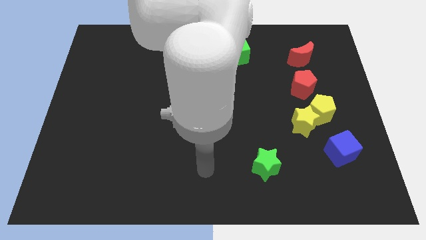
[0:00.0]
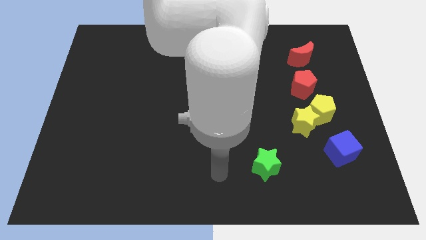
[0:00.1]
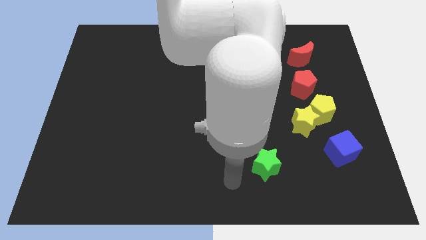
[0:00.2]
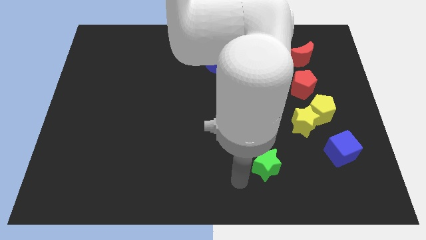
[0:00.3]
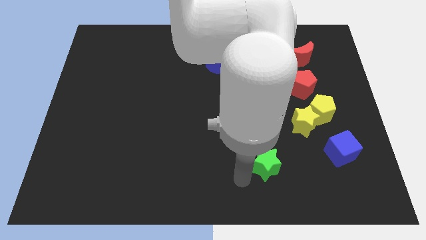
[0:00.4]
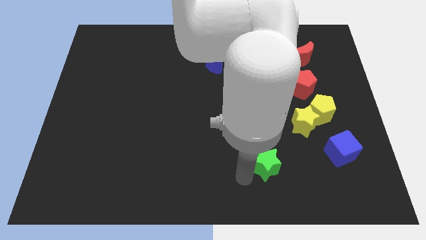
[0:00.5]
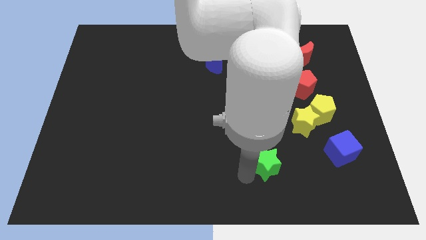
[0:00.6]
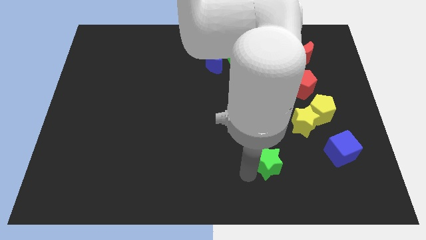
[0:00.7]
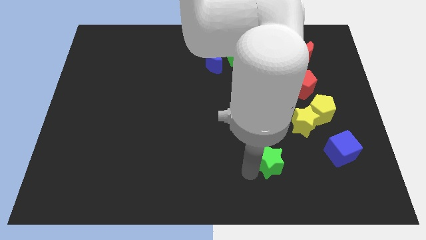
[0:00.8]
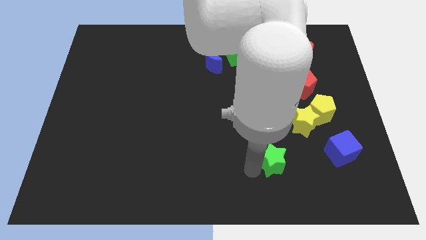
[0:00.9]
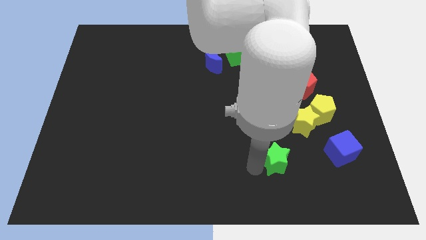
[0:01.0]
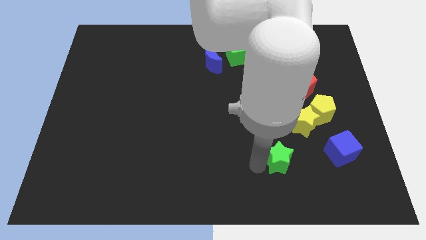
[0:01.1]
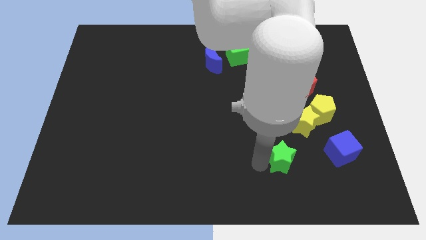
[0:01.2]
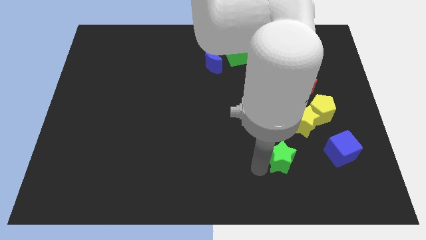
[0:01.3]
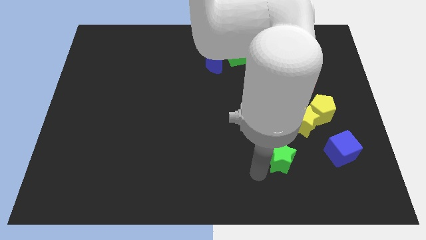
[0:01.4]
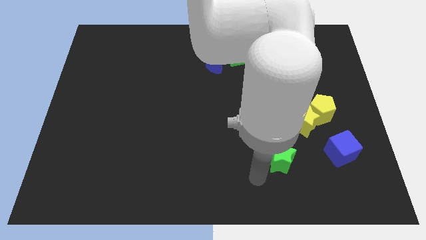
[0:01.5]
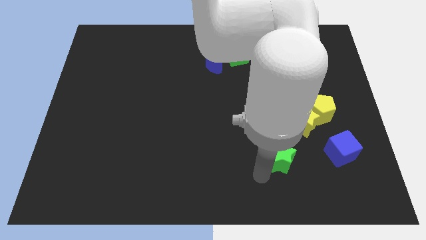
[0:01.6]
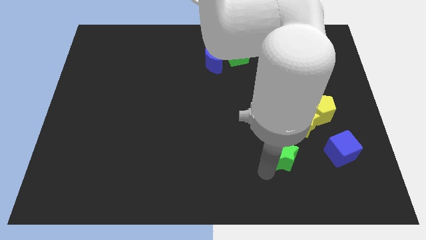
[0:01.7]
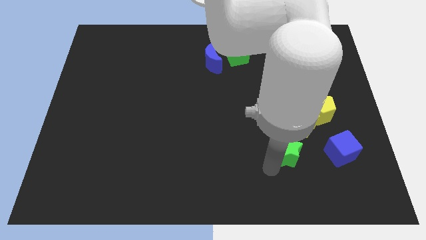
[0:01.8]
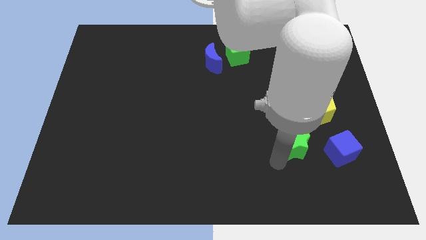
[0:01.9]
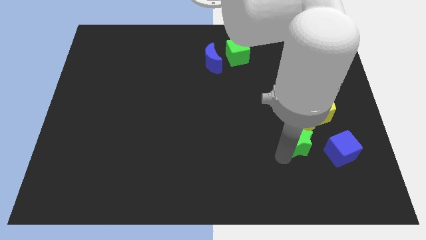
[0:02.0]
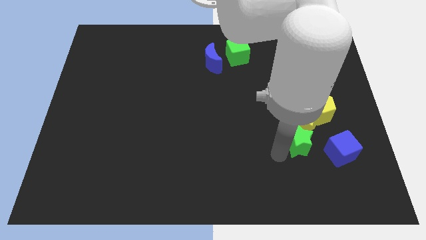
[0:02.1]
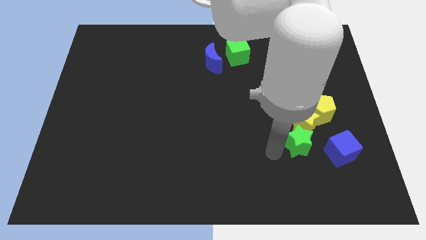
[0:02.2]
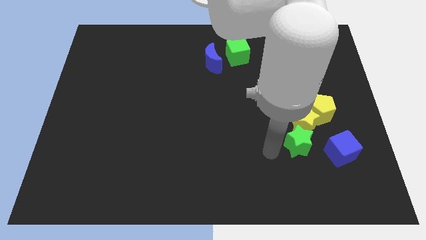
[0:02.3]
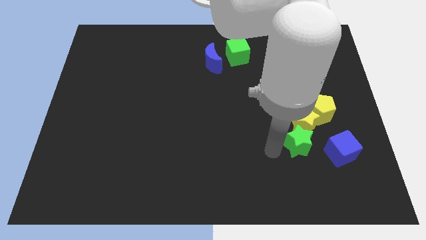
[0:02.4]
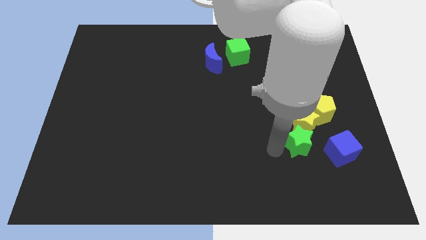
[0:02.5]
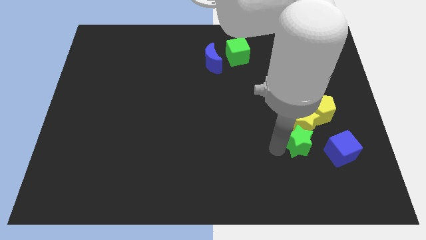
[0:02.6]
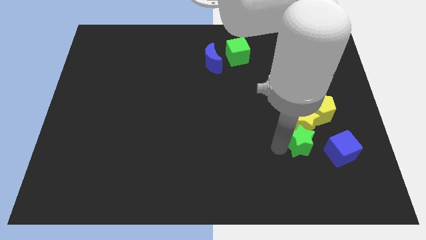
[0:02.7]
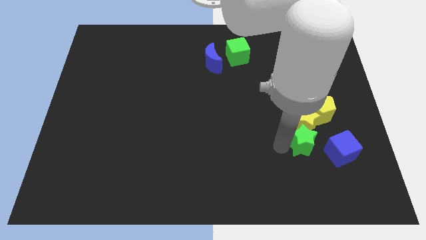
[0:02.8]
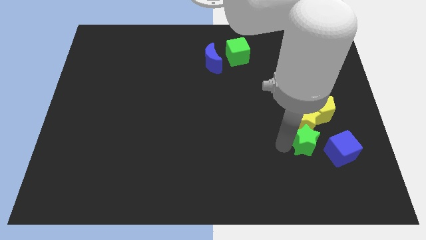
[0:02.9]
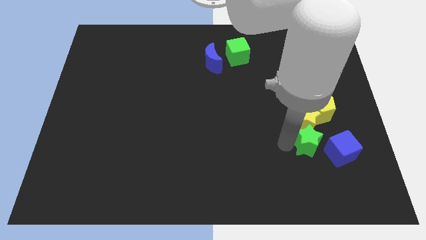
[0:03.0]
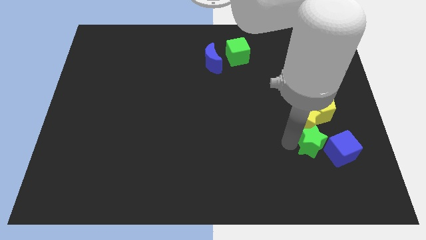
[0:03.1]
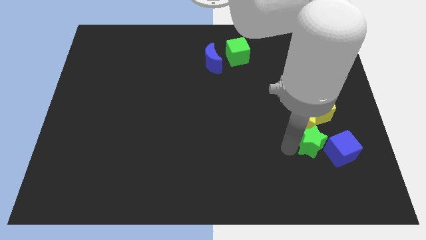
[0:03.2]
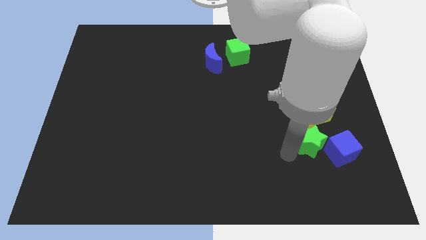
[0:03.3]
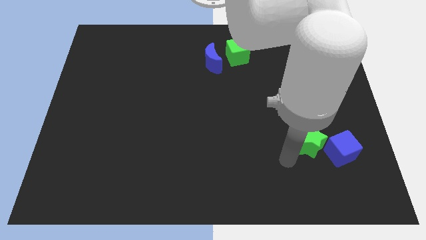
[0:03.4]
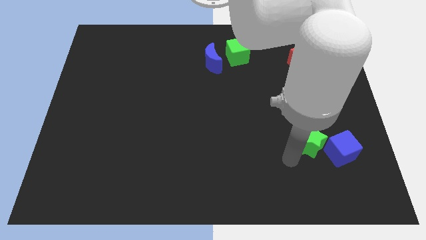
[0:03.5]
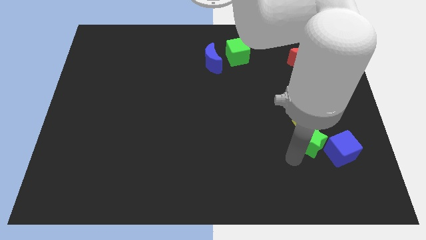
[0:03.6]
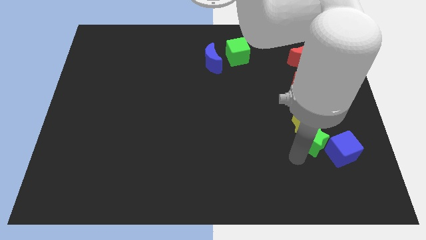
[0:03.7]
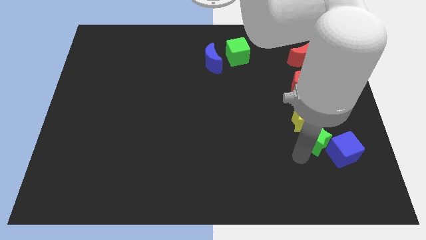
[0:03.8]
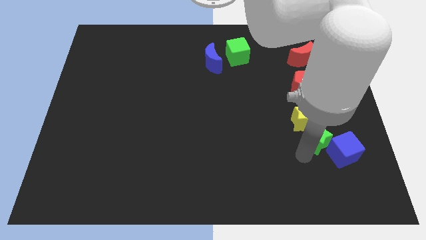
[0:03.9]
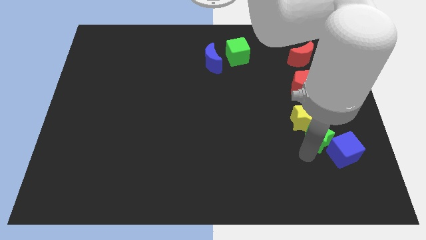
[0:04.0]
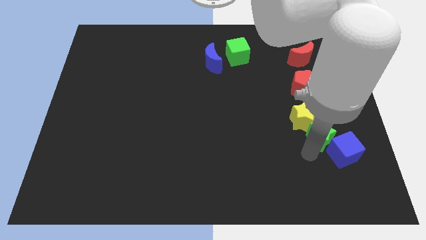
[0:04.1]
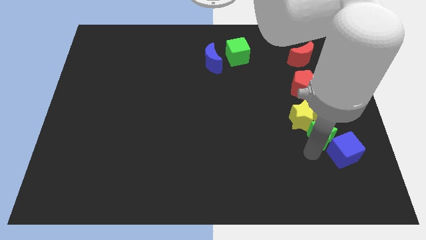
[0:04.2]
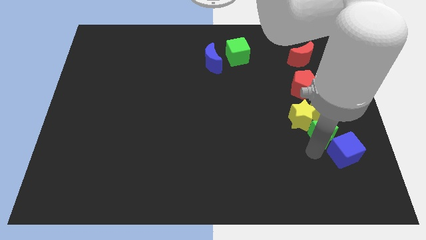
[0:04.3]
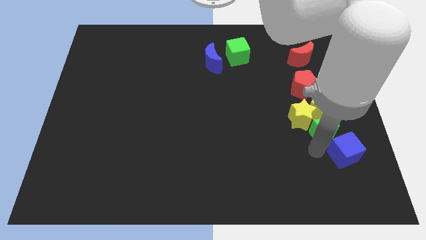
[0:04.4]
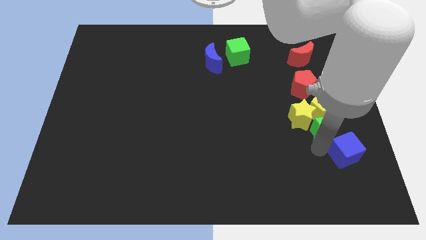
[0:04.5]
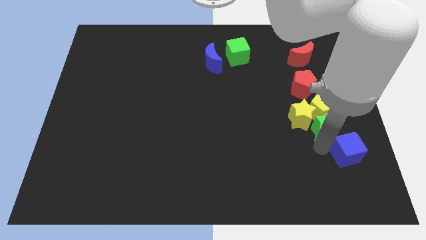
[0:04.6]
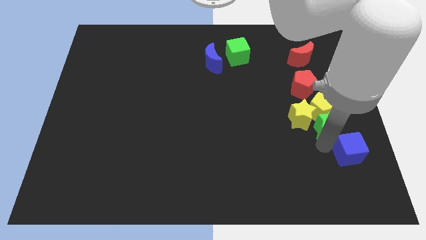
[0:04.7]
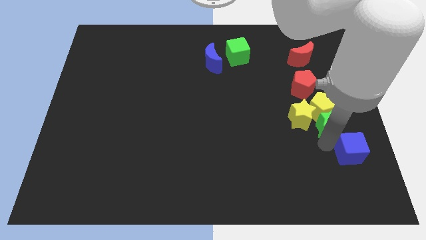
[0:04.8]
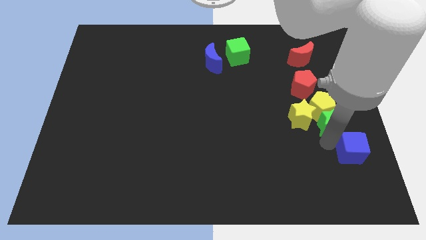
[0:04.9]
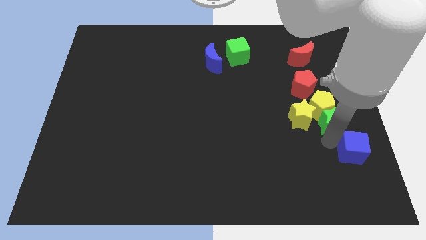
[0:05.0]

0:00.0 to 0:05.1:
push the green star to the right side

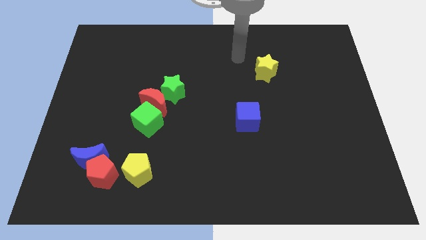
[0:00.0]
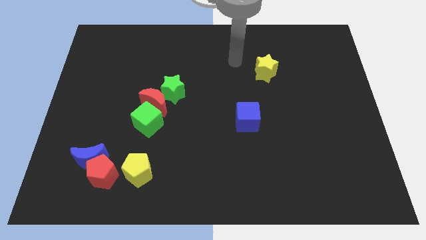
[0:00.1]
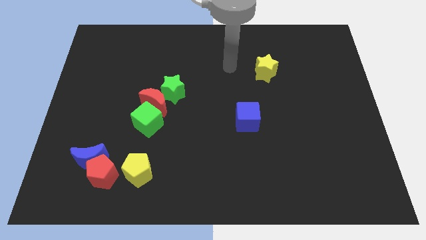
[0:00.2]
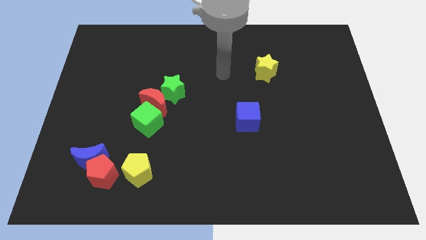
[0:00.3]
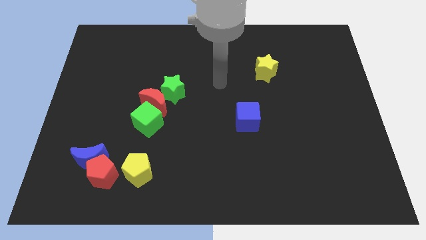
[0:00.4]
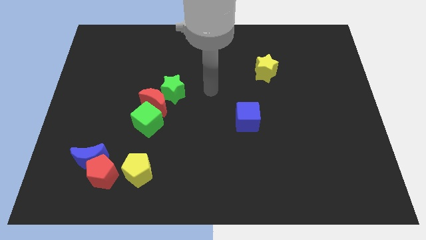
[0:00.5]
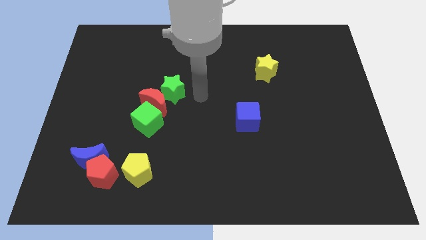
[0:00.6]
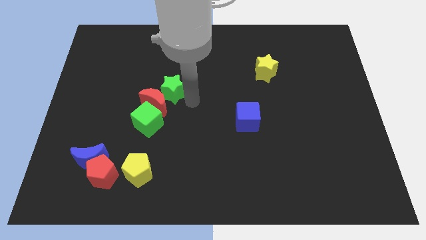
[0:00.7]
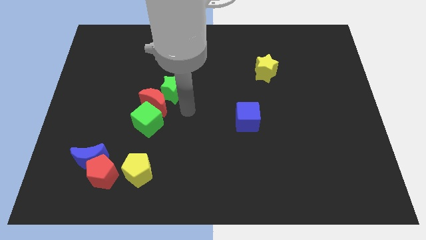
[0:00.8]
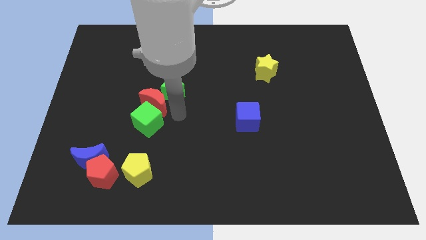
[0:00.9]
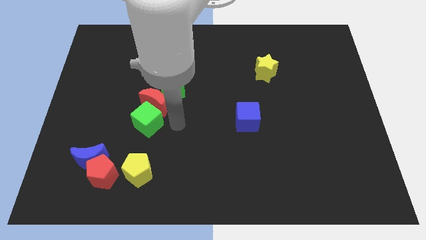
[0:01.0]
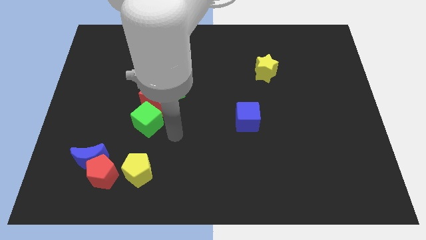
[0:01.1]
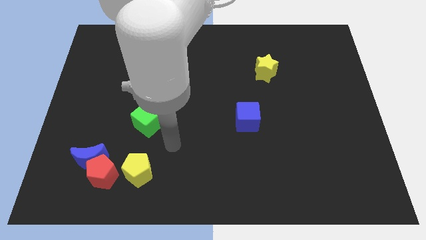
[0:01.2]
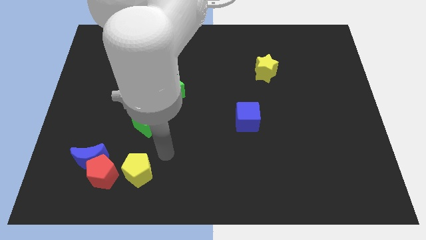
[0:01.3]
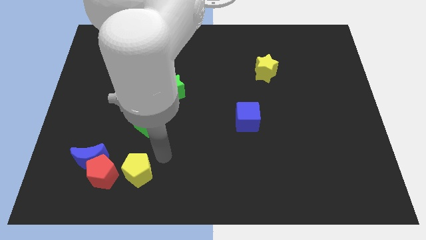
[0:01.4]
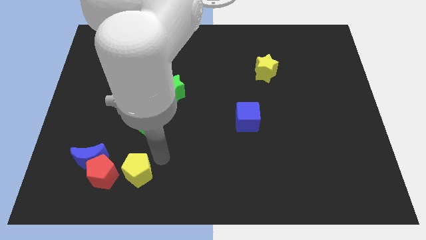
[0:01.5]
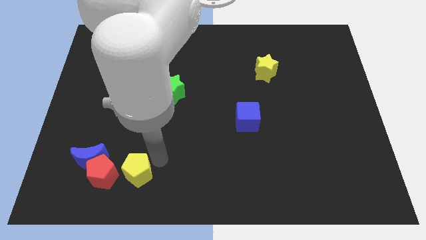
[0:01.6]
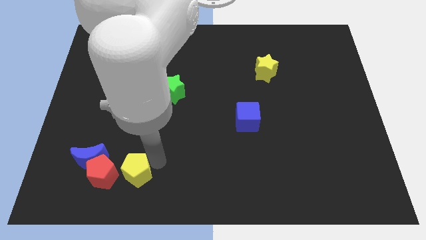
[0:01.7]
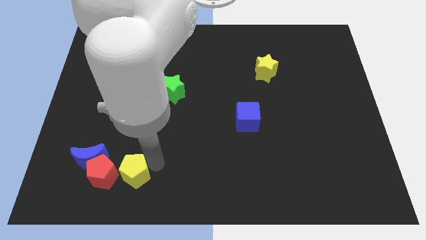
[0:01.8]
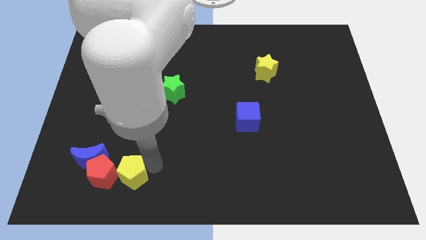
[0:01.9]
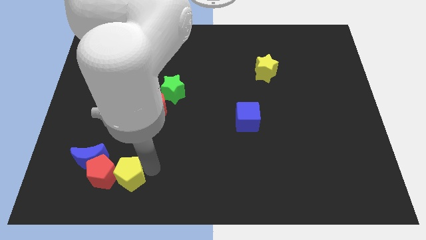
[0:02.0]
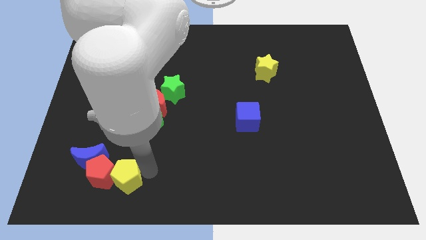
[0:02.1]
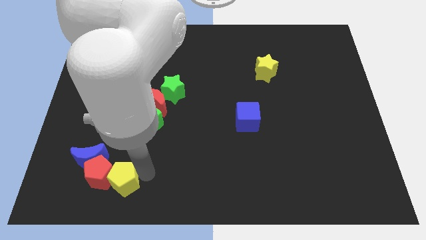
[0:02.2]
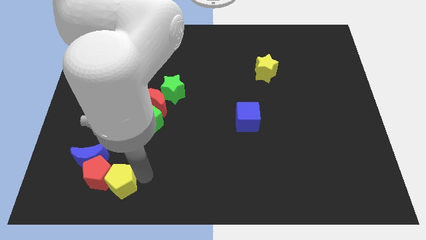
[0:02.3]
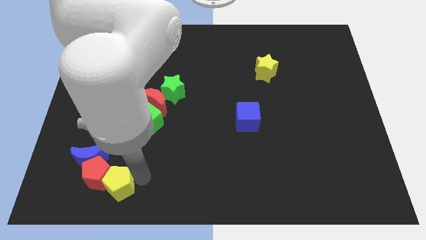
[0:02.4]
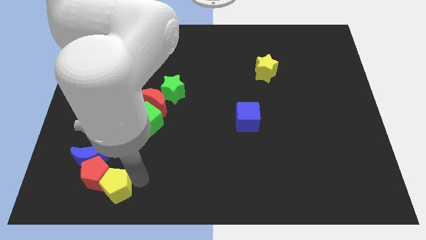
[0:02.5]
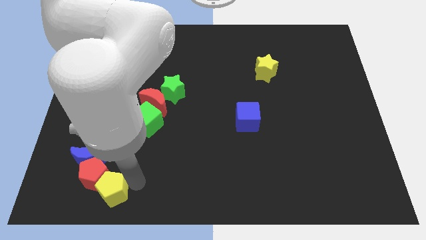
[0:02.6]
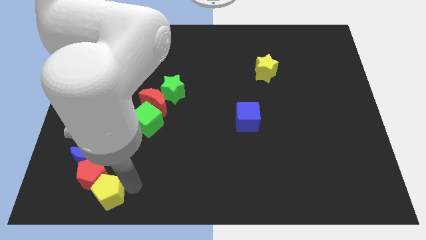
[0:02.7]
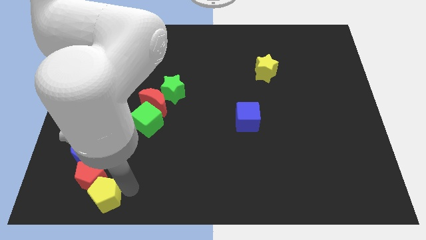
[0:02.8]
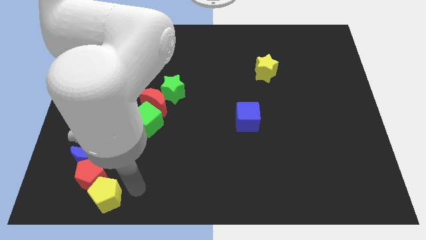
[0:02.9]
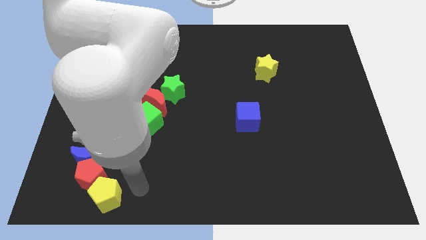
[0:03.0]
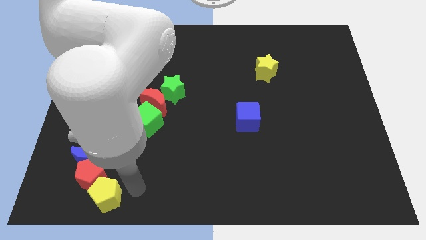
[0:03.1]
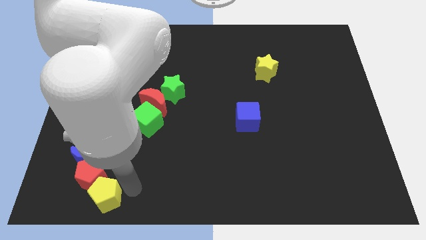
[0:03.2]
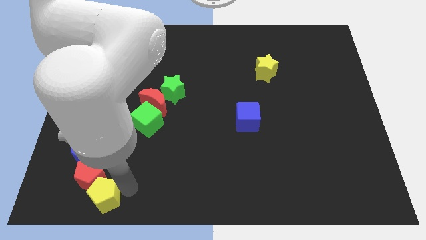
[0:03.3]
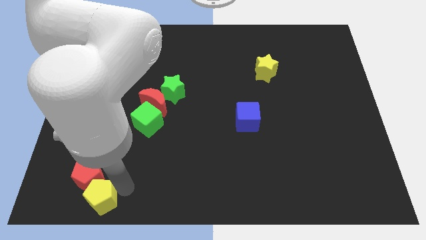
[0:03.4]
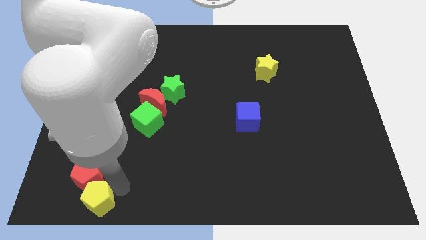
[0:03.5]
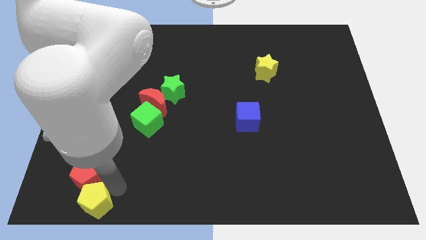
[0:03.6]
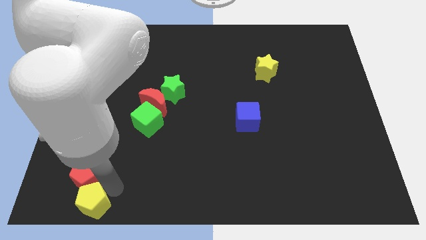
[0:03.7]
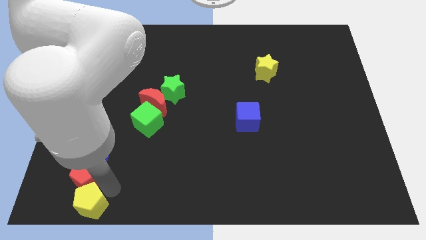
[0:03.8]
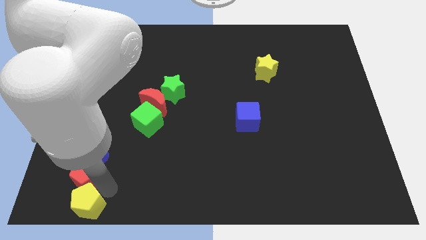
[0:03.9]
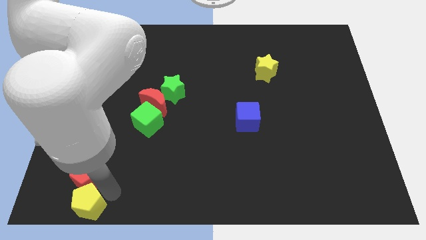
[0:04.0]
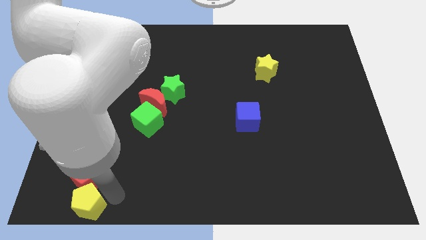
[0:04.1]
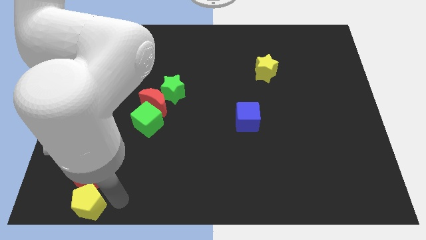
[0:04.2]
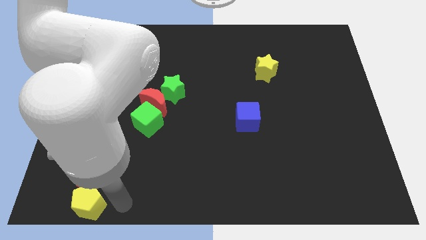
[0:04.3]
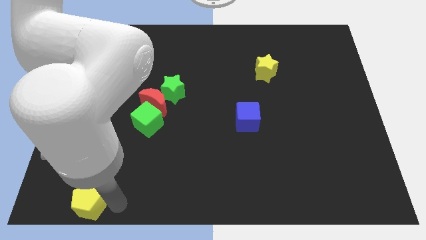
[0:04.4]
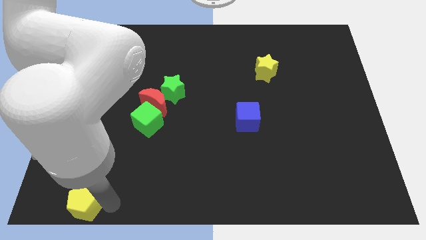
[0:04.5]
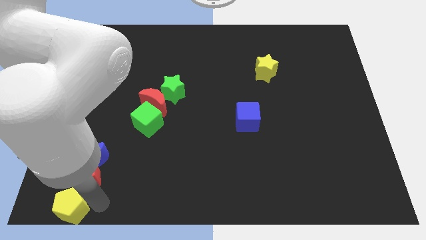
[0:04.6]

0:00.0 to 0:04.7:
move the yellow pentagon to the bottom left
